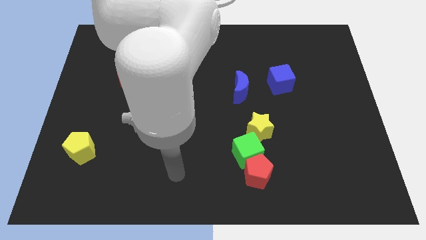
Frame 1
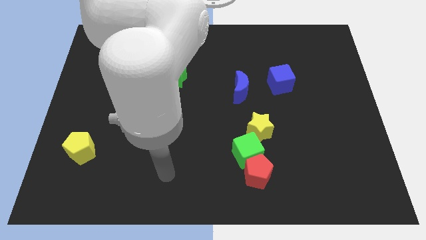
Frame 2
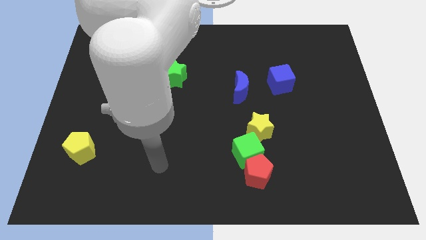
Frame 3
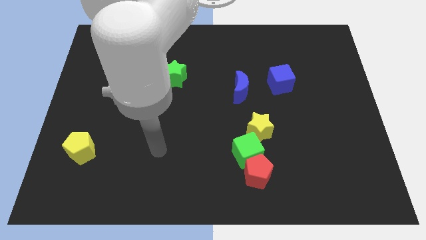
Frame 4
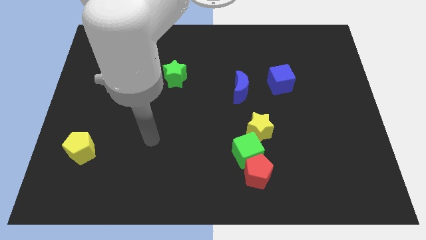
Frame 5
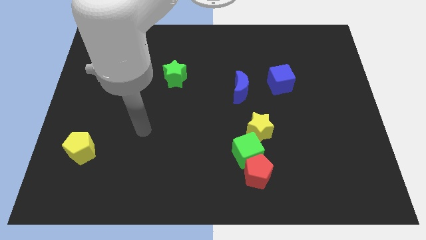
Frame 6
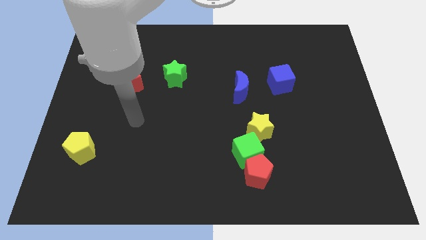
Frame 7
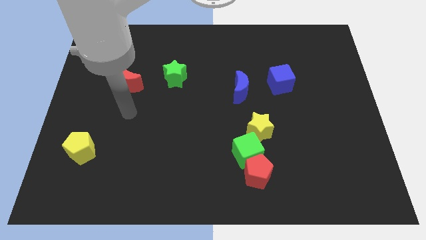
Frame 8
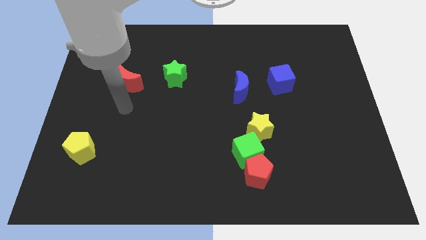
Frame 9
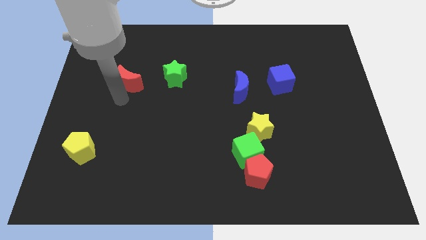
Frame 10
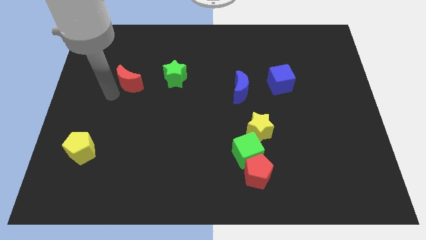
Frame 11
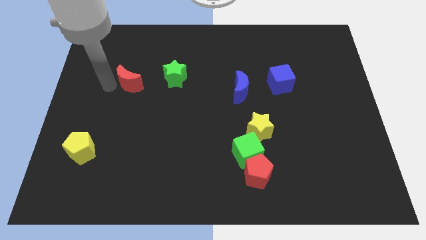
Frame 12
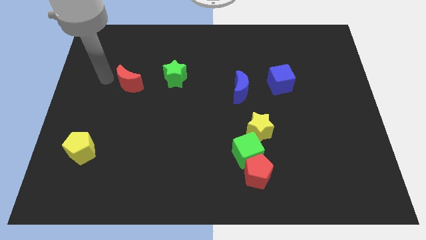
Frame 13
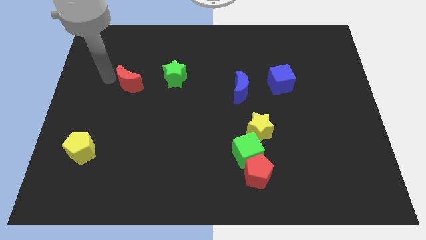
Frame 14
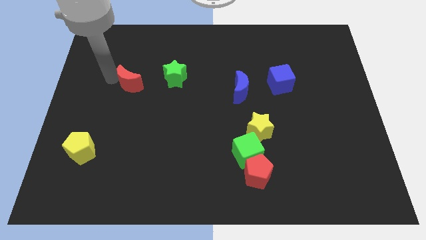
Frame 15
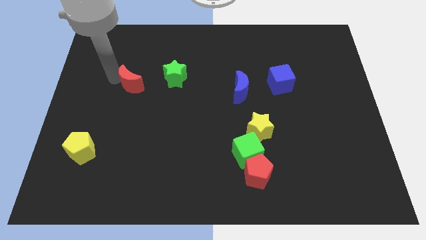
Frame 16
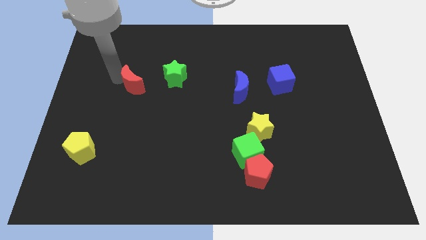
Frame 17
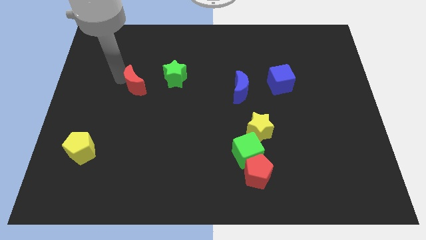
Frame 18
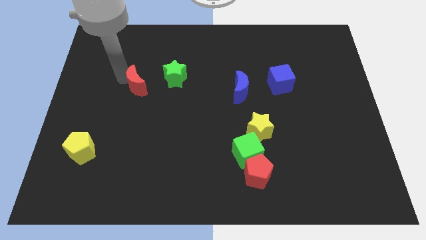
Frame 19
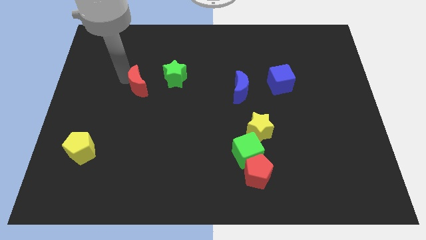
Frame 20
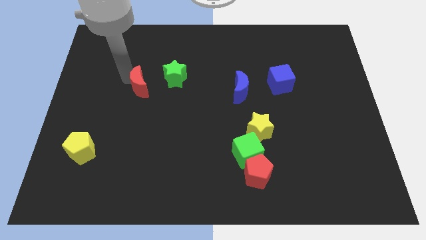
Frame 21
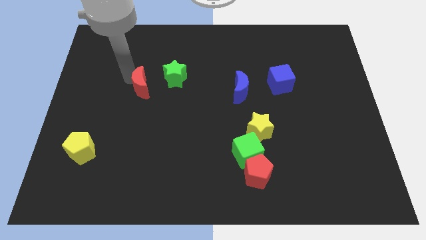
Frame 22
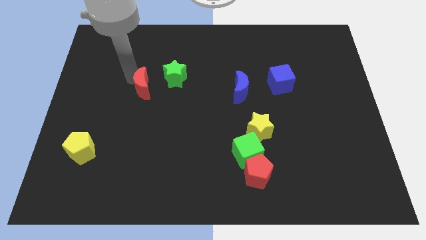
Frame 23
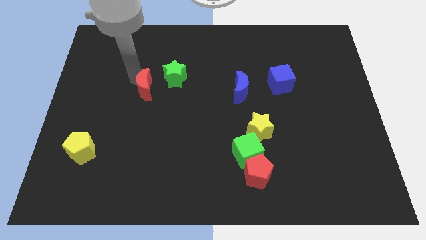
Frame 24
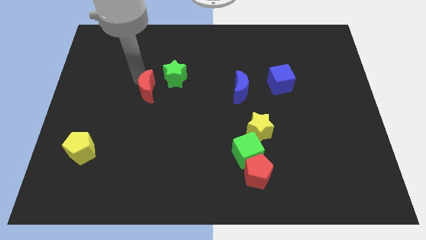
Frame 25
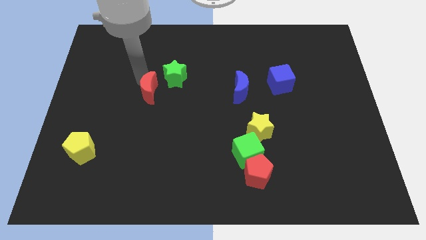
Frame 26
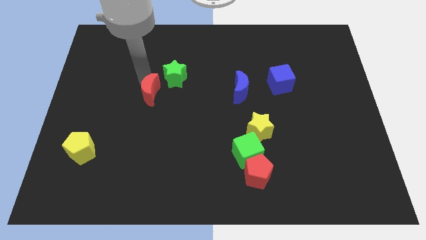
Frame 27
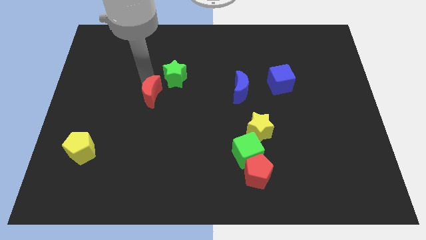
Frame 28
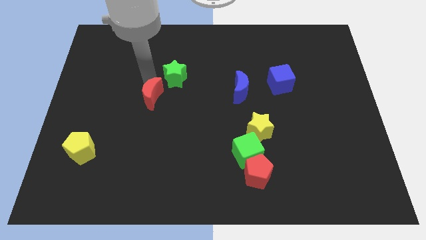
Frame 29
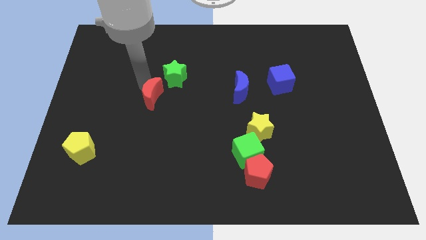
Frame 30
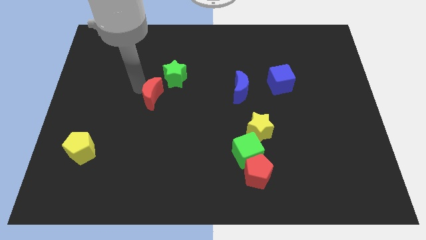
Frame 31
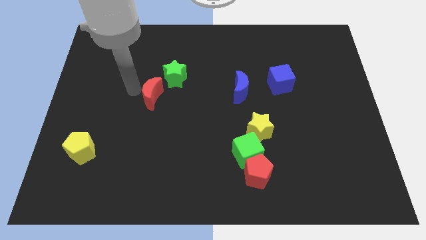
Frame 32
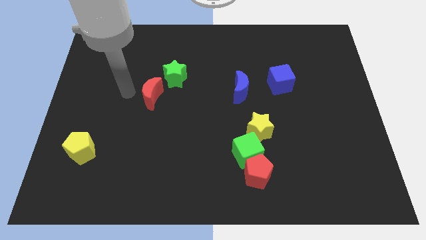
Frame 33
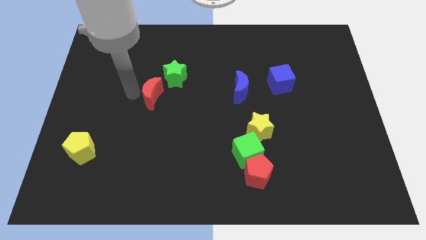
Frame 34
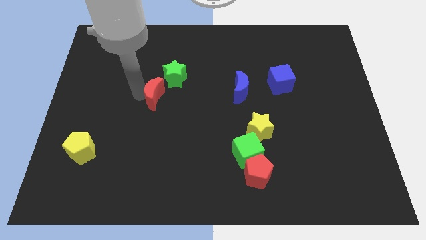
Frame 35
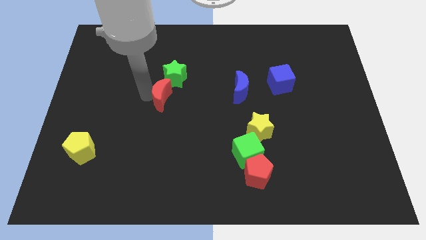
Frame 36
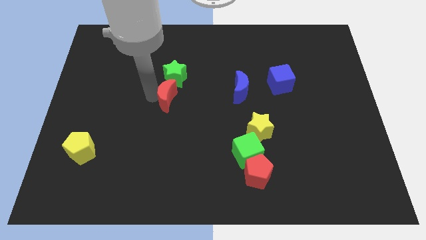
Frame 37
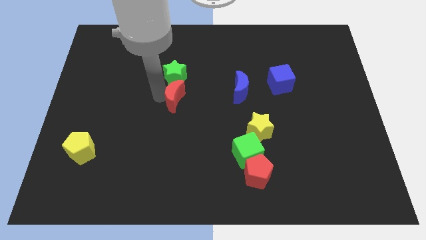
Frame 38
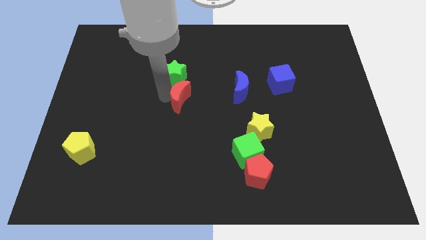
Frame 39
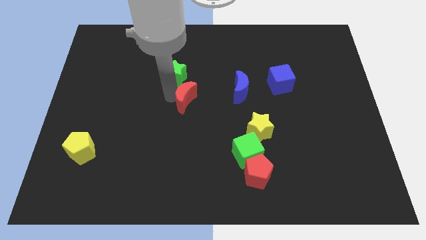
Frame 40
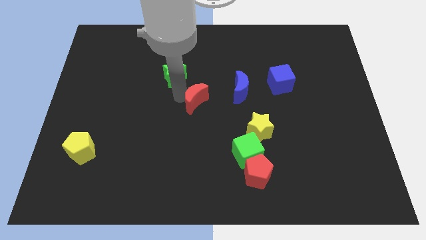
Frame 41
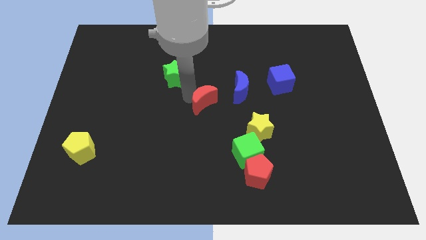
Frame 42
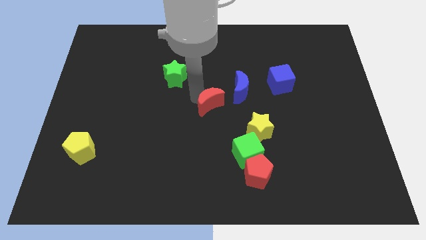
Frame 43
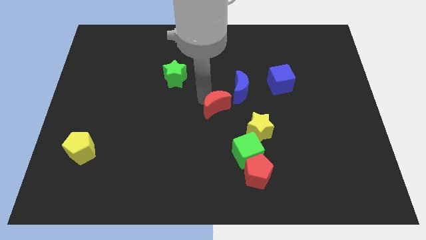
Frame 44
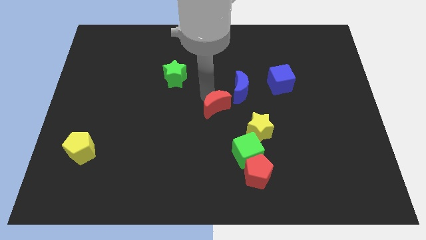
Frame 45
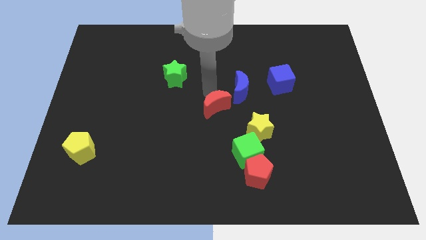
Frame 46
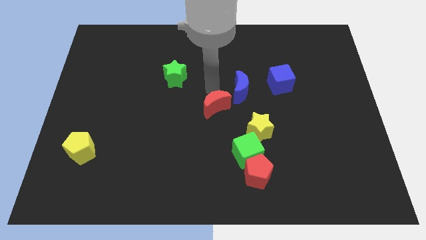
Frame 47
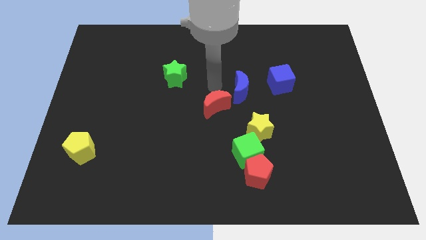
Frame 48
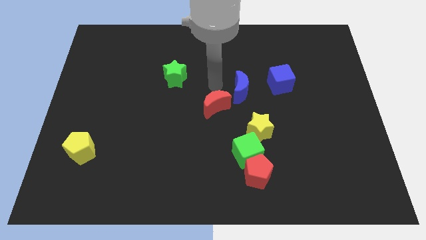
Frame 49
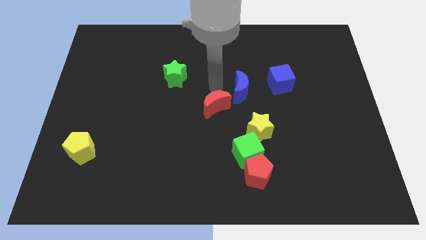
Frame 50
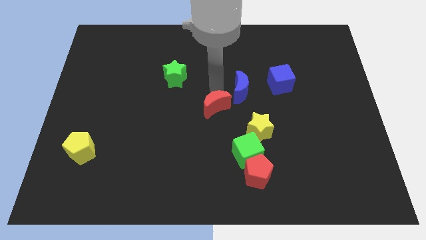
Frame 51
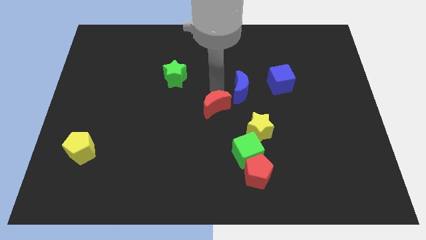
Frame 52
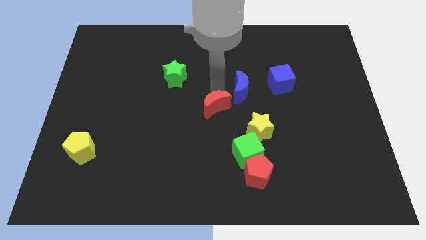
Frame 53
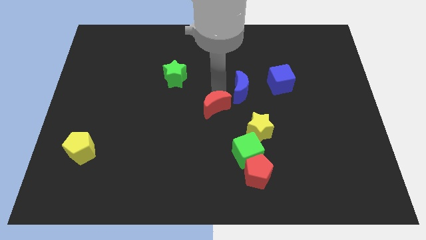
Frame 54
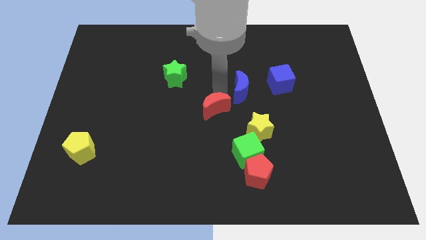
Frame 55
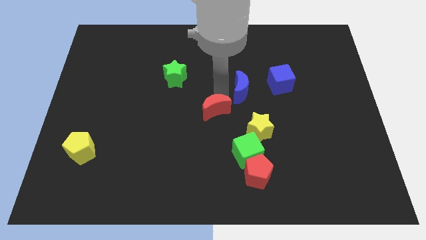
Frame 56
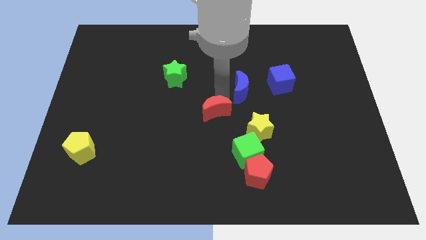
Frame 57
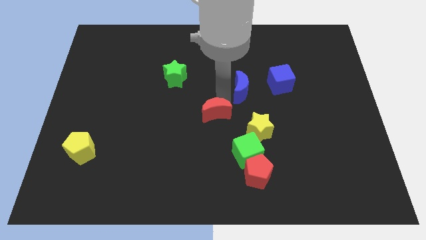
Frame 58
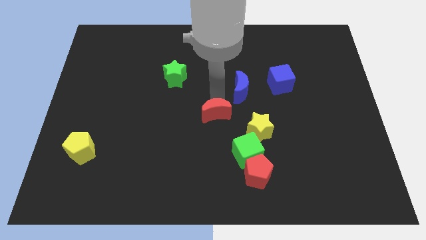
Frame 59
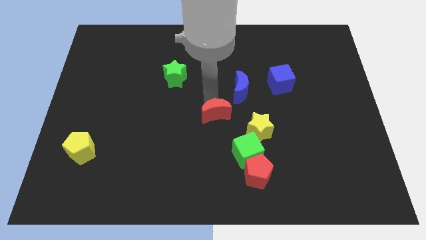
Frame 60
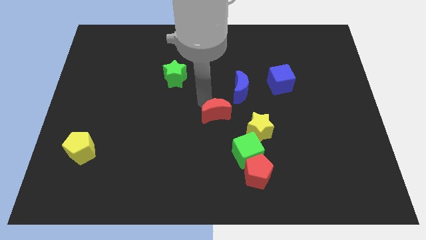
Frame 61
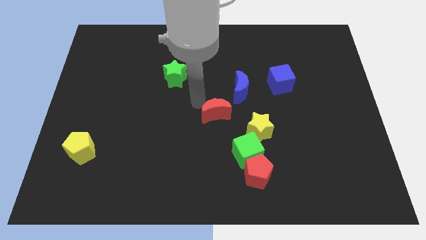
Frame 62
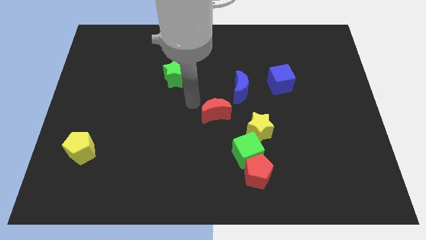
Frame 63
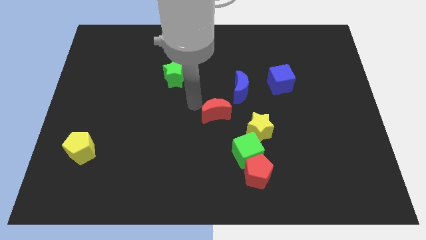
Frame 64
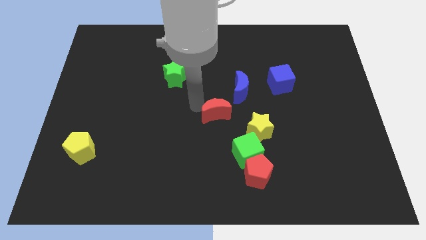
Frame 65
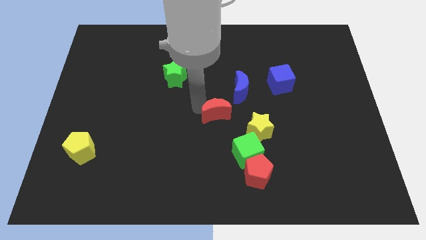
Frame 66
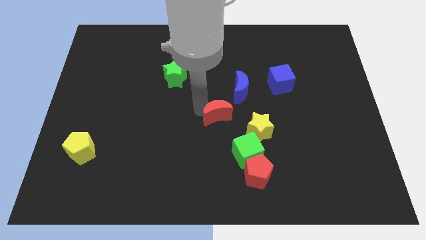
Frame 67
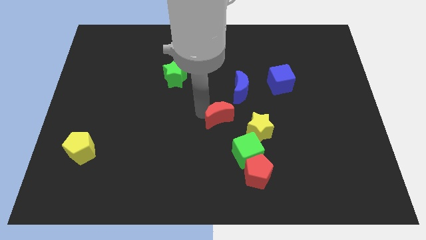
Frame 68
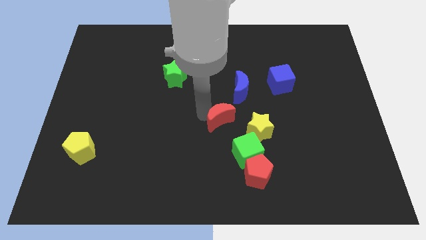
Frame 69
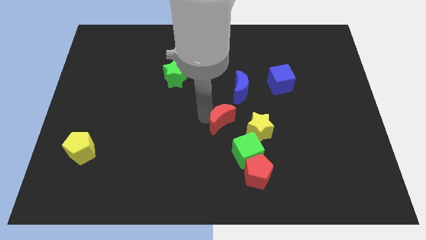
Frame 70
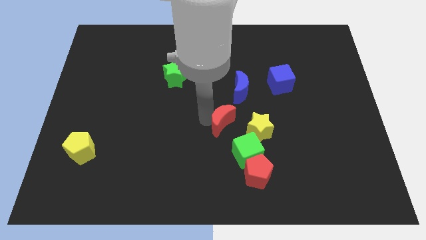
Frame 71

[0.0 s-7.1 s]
put the red moon to the bottom of the blue moon

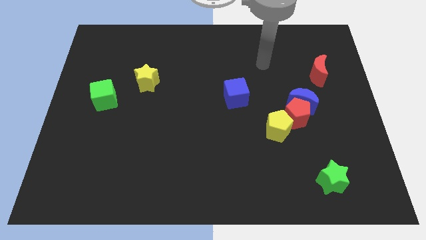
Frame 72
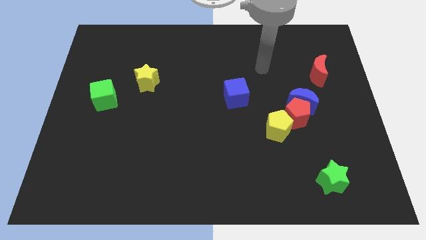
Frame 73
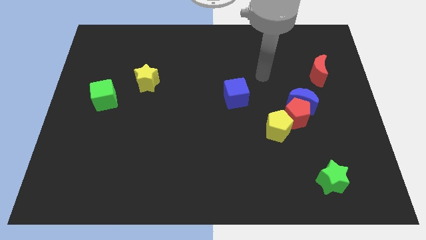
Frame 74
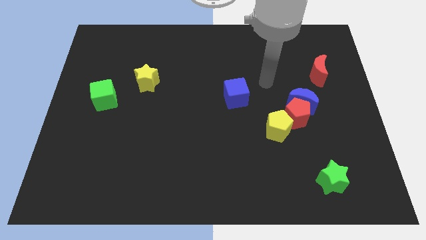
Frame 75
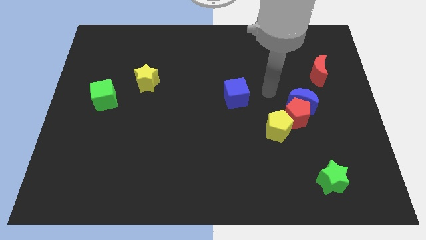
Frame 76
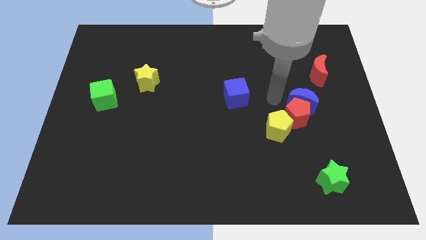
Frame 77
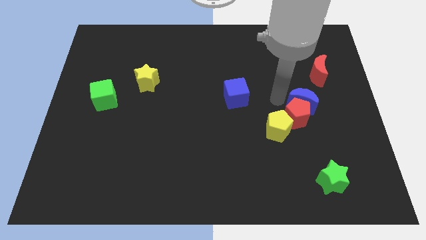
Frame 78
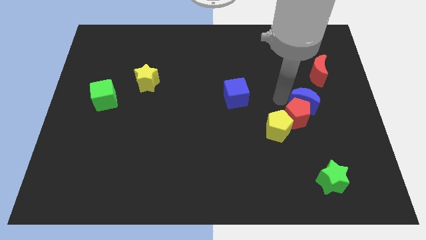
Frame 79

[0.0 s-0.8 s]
put the blue moon to the bottom side of the red moon
